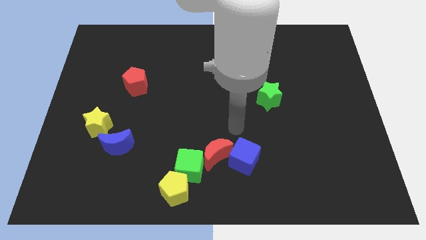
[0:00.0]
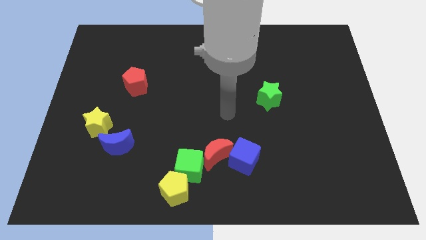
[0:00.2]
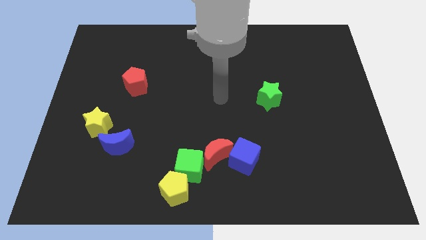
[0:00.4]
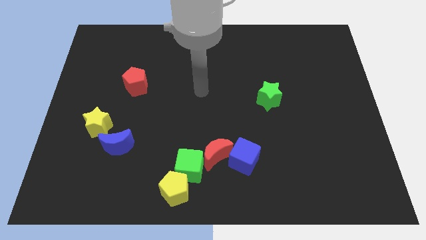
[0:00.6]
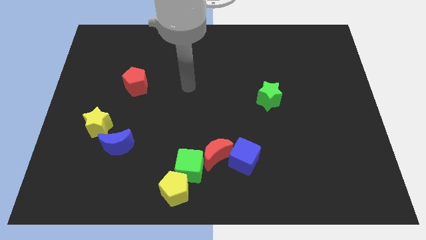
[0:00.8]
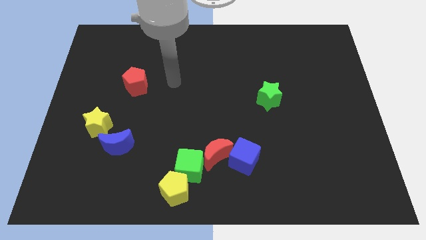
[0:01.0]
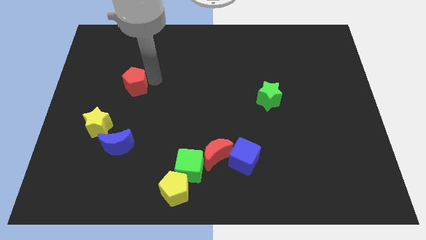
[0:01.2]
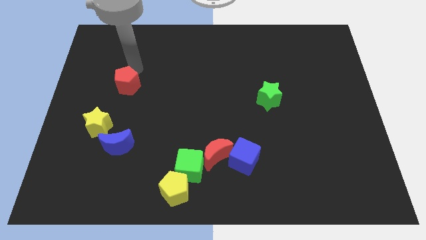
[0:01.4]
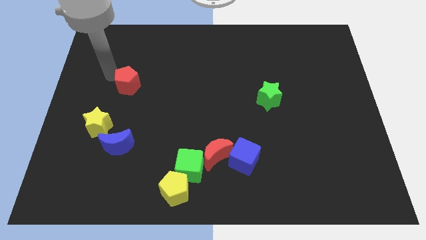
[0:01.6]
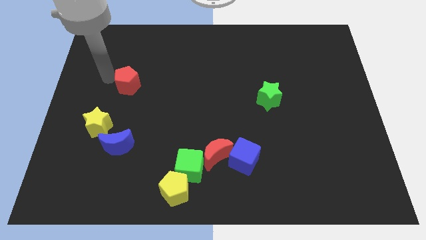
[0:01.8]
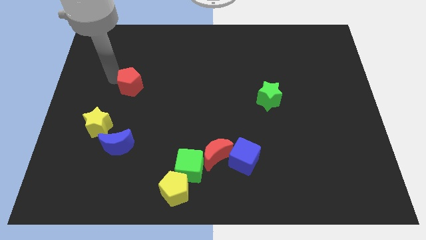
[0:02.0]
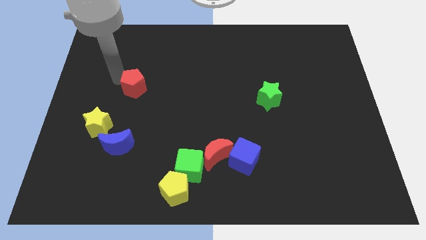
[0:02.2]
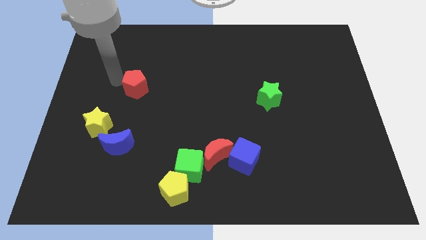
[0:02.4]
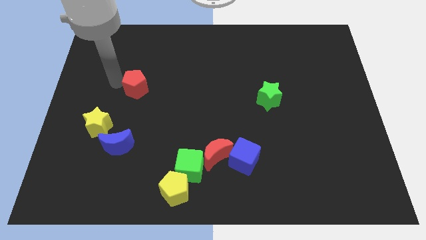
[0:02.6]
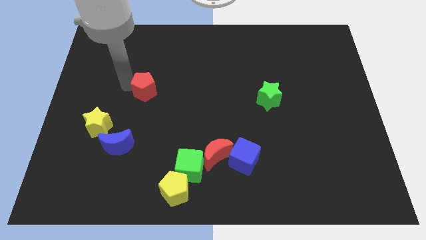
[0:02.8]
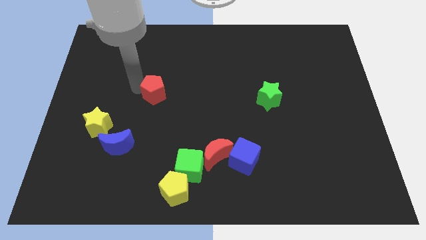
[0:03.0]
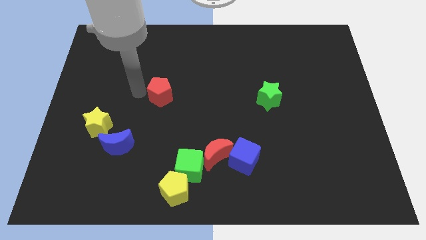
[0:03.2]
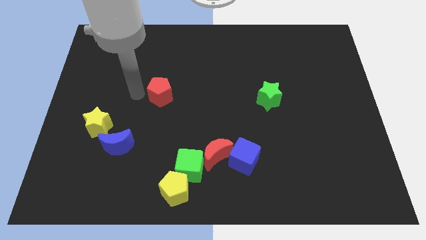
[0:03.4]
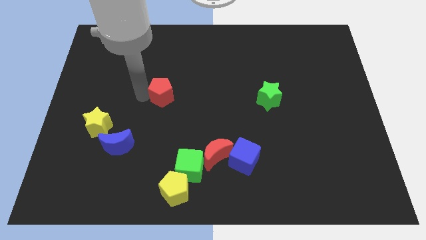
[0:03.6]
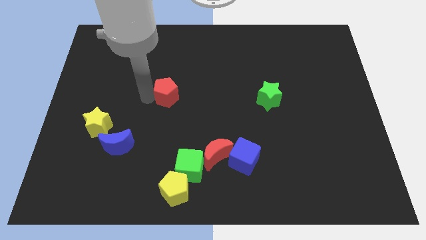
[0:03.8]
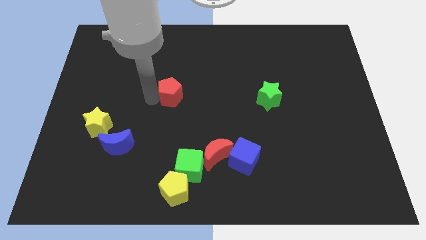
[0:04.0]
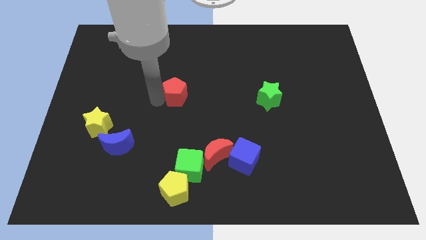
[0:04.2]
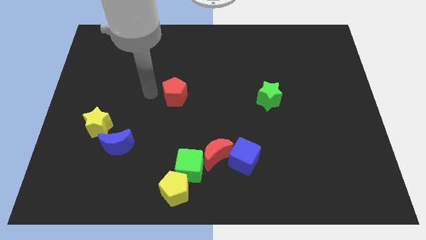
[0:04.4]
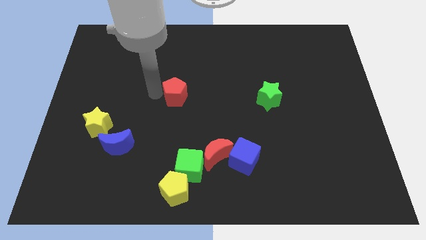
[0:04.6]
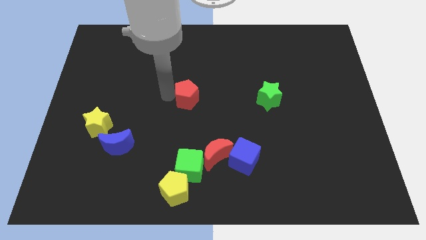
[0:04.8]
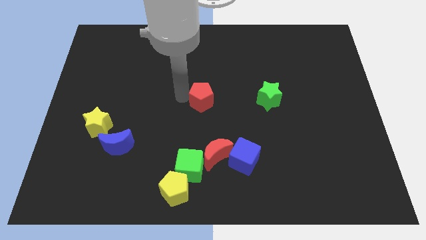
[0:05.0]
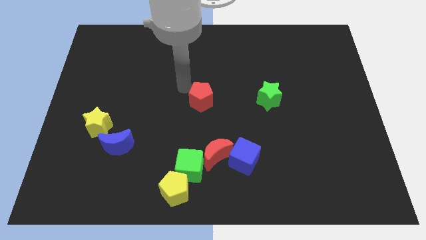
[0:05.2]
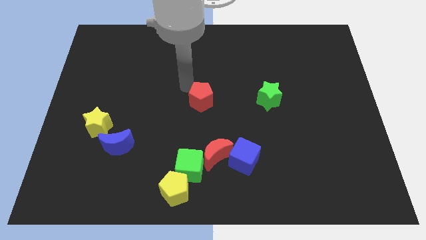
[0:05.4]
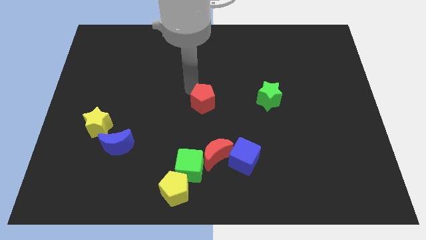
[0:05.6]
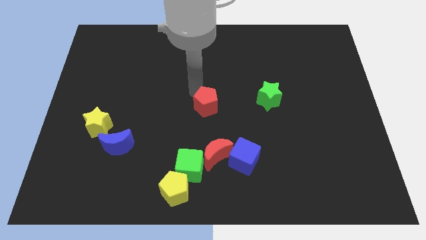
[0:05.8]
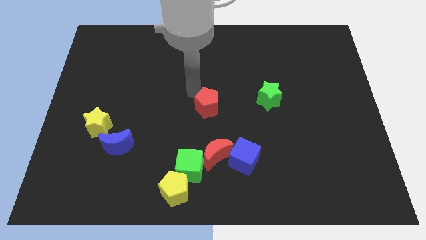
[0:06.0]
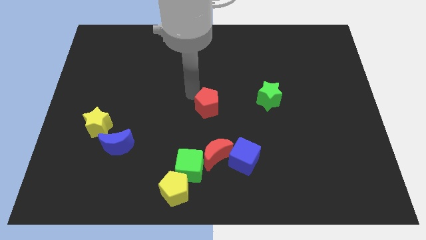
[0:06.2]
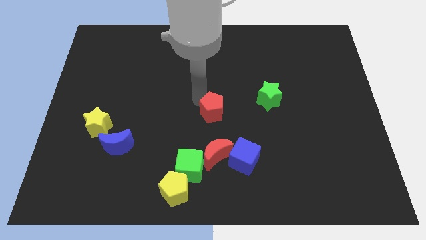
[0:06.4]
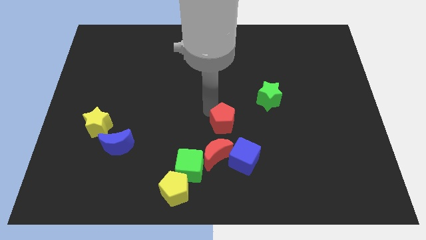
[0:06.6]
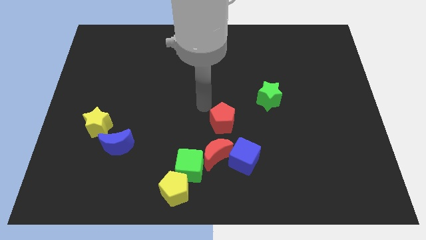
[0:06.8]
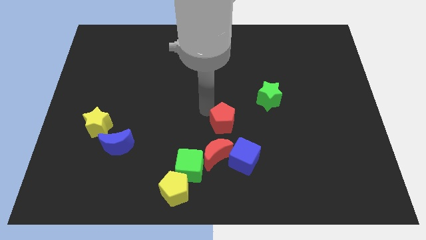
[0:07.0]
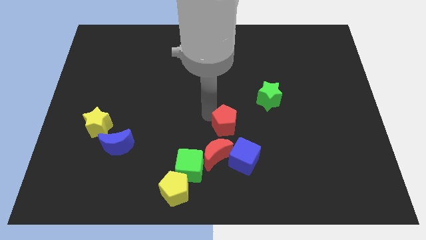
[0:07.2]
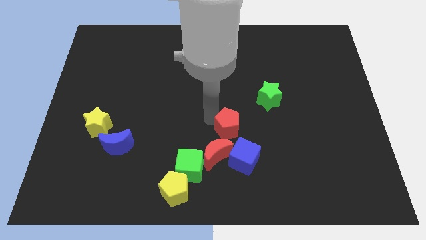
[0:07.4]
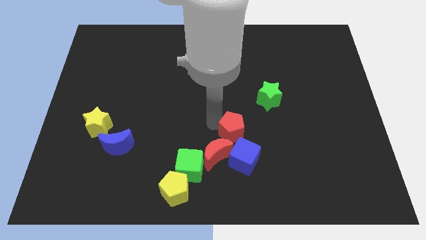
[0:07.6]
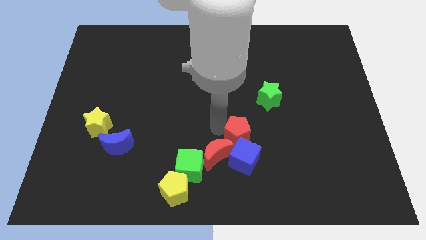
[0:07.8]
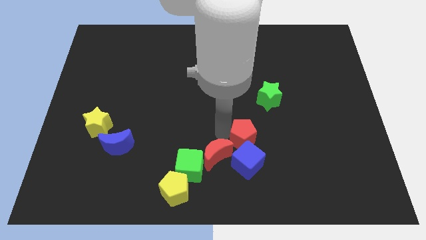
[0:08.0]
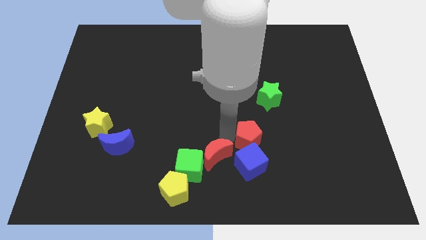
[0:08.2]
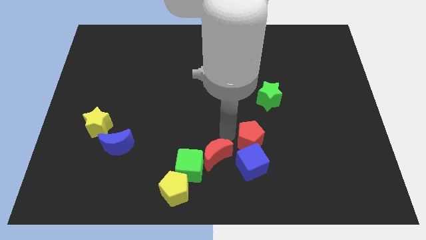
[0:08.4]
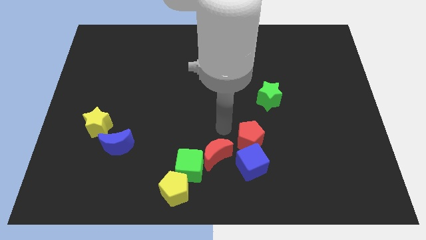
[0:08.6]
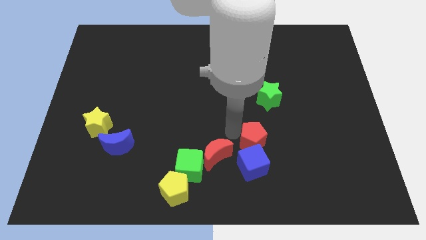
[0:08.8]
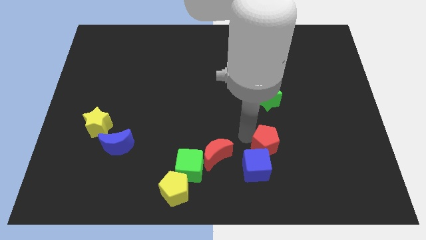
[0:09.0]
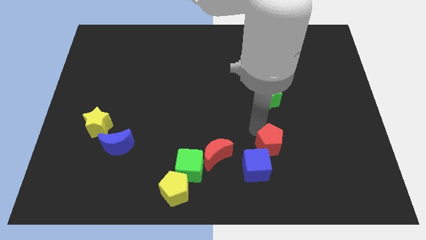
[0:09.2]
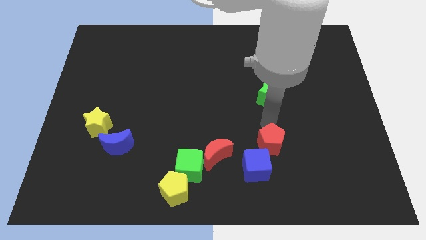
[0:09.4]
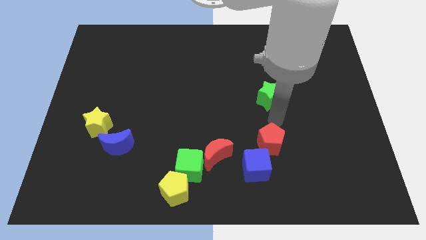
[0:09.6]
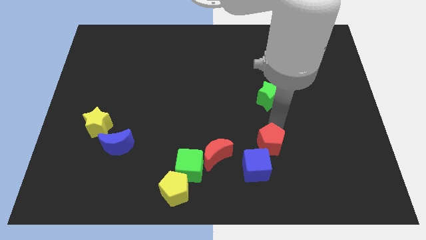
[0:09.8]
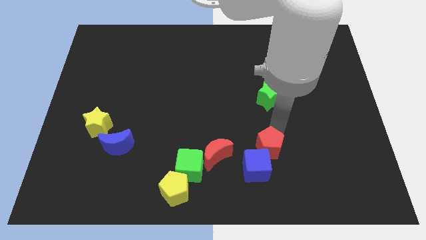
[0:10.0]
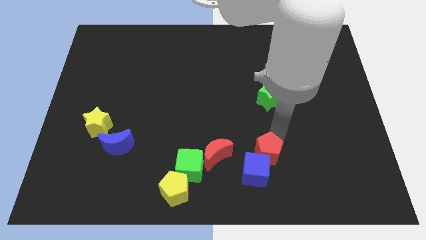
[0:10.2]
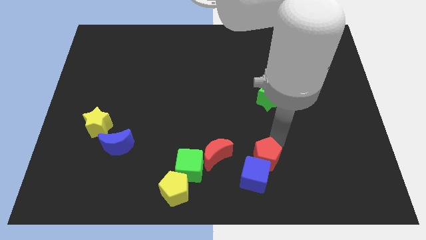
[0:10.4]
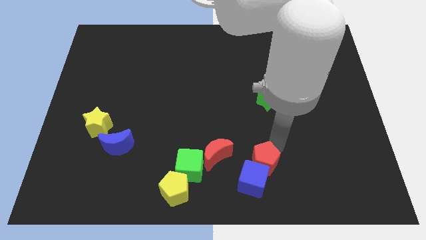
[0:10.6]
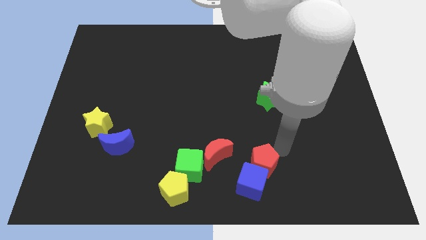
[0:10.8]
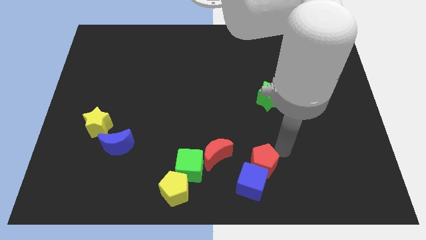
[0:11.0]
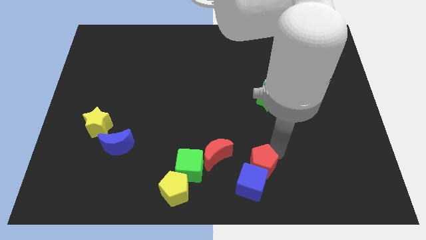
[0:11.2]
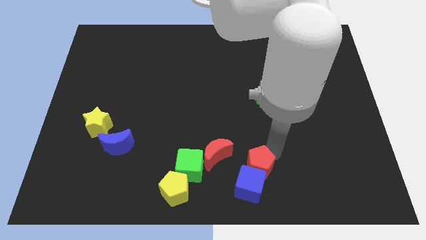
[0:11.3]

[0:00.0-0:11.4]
slide the red pentagon to the bottom right of the red moon
